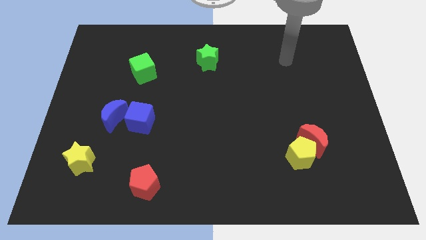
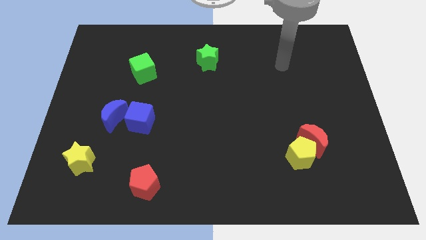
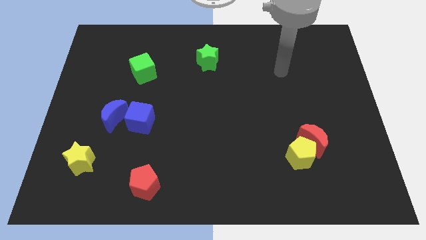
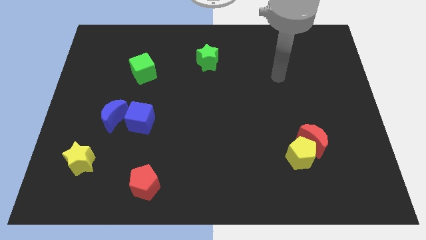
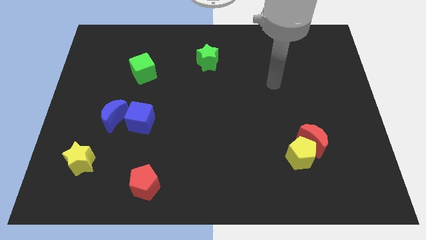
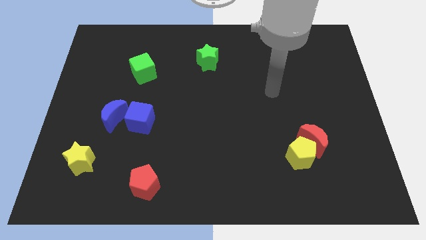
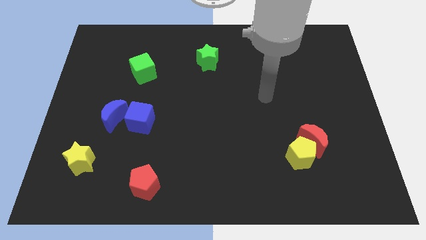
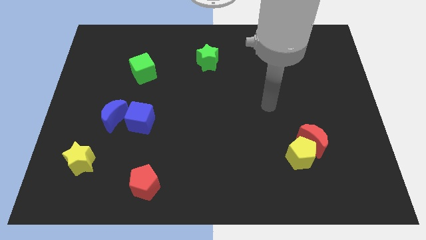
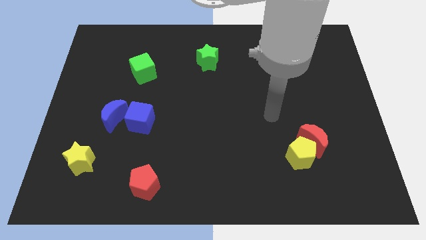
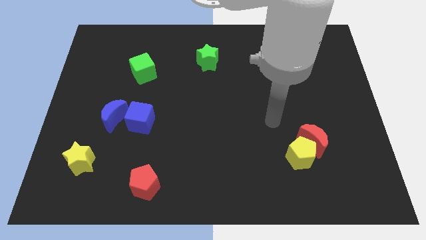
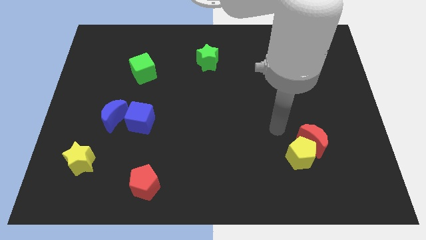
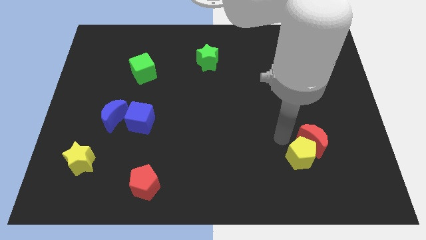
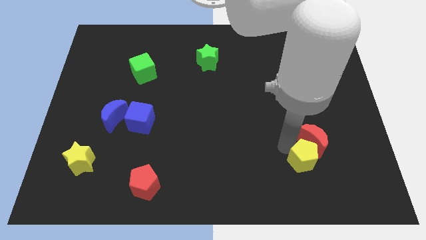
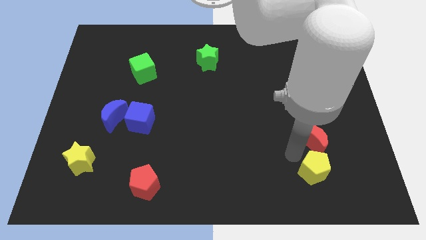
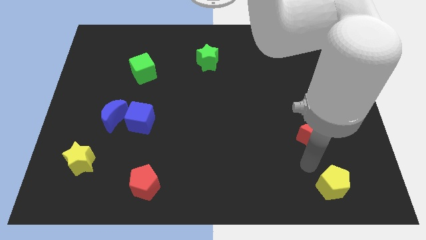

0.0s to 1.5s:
move the red moon away from the yellow pentagon

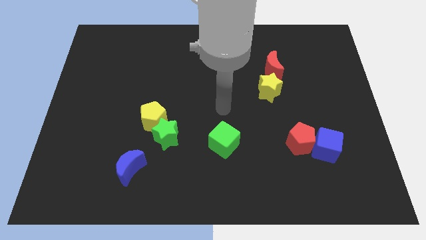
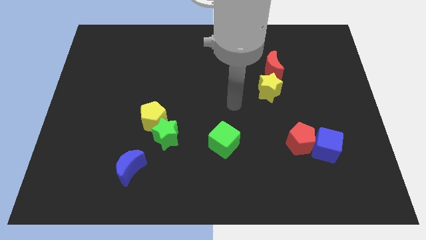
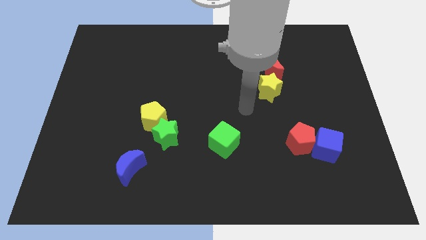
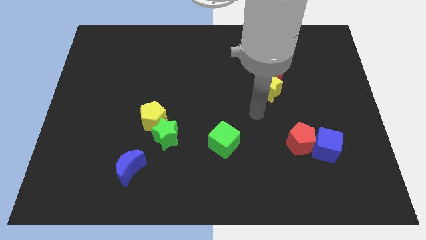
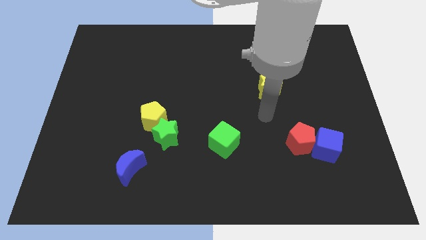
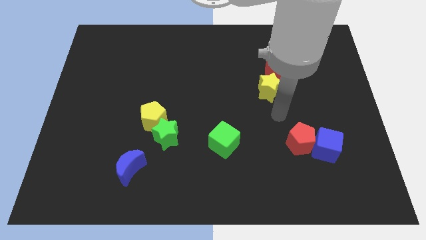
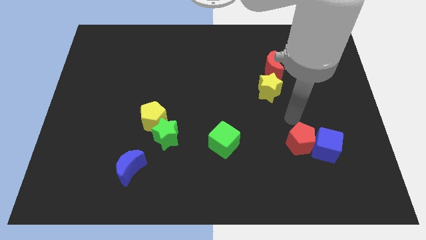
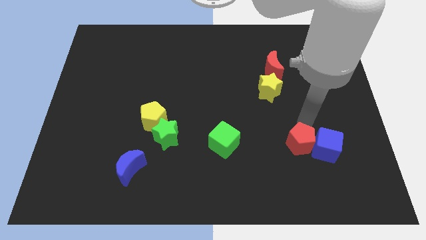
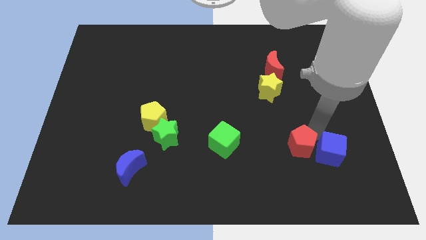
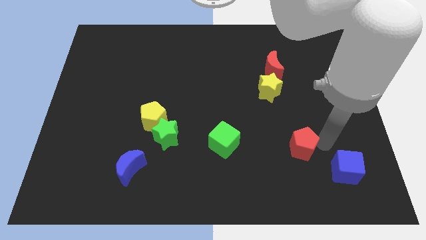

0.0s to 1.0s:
separate the red pentagon from the blue cube

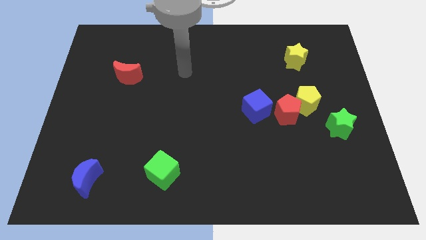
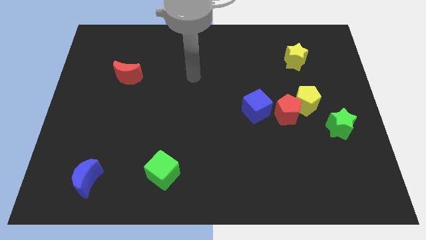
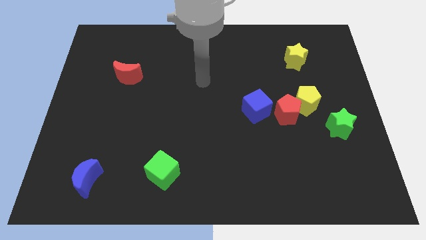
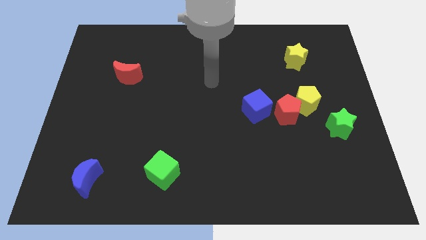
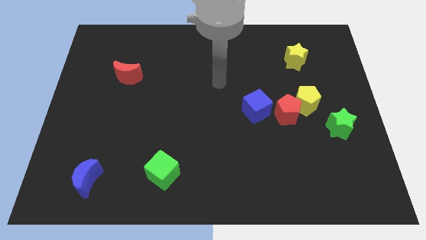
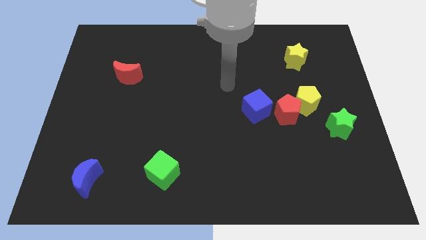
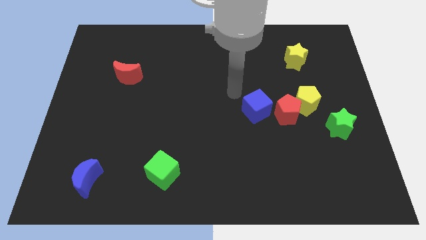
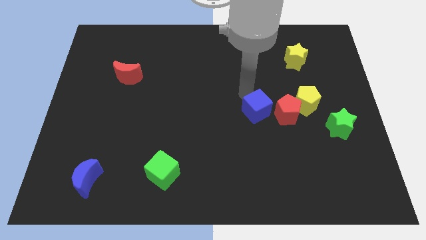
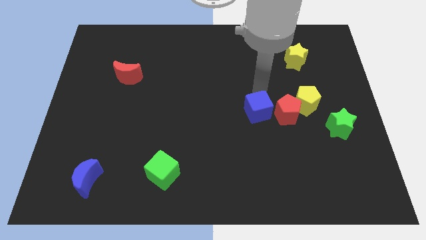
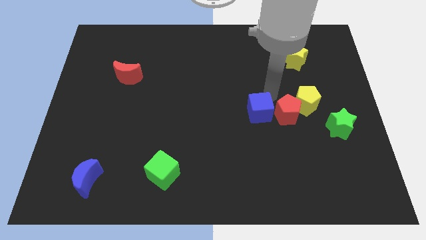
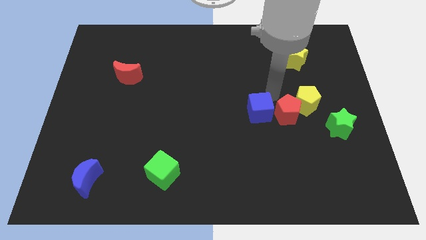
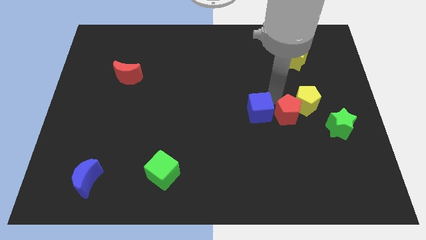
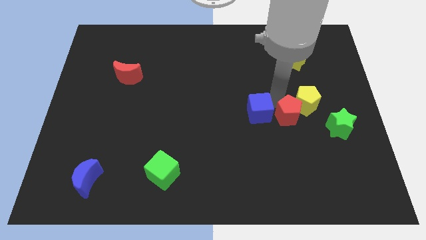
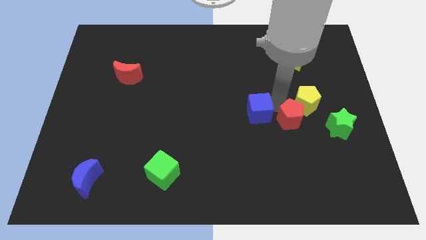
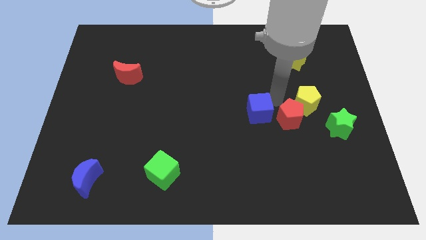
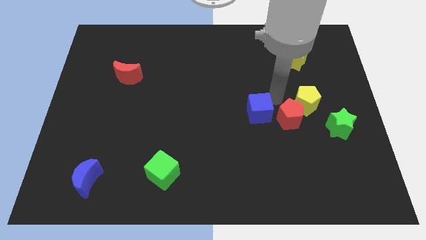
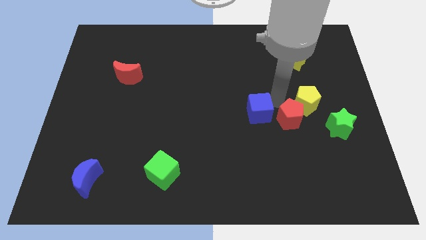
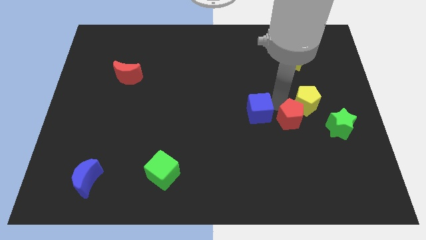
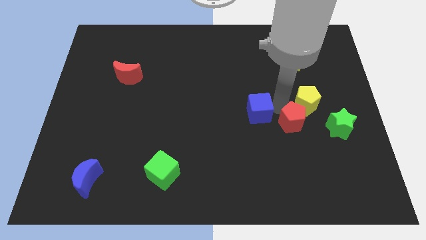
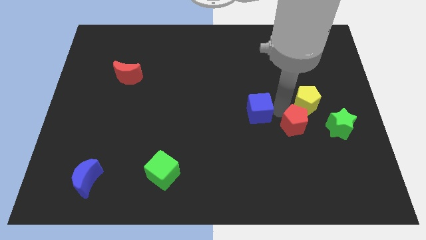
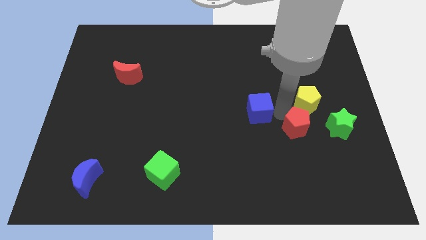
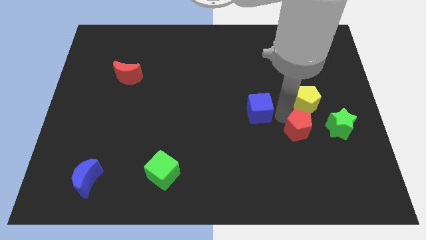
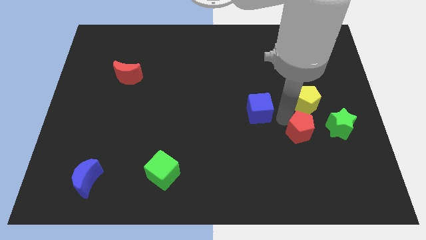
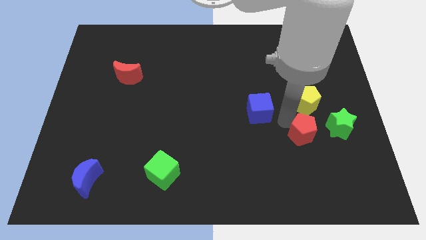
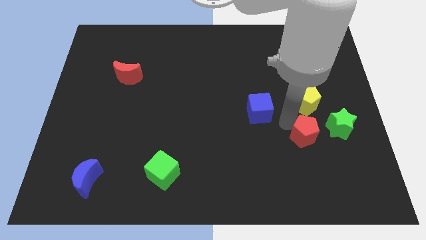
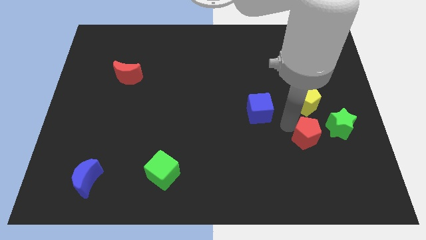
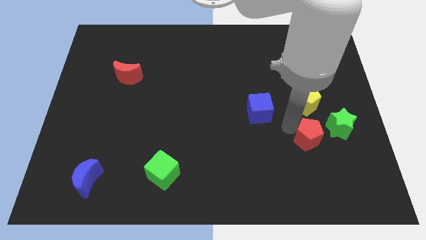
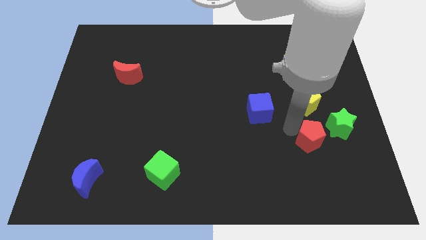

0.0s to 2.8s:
move the red pentagon away from the yellow pentagon and blue cube

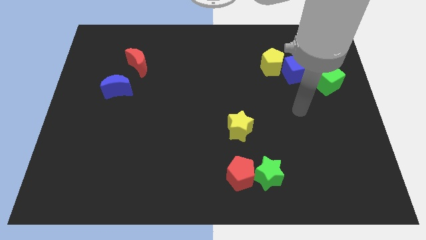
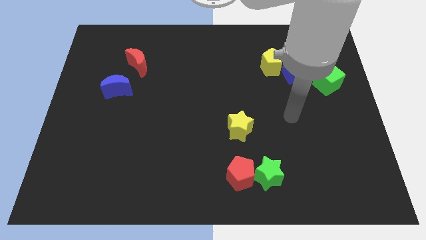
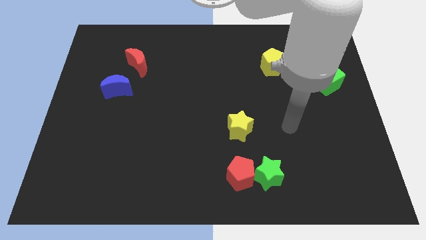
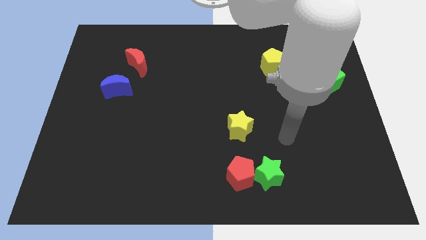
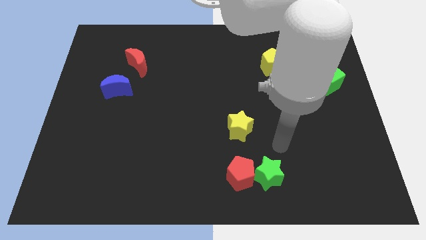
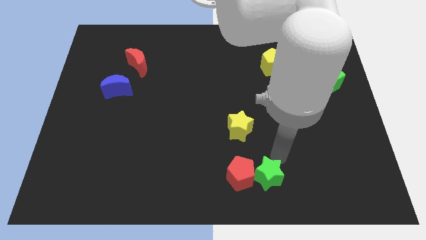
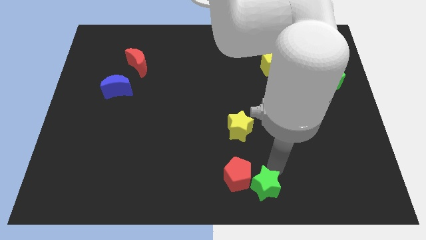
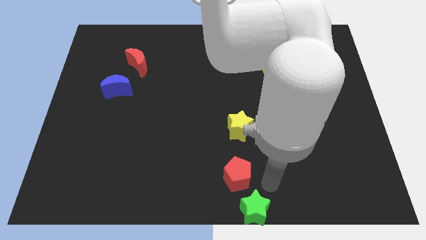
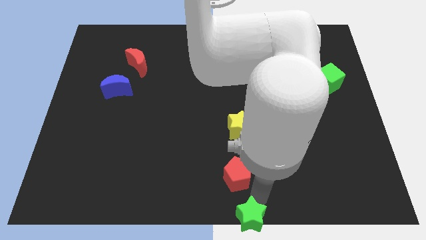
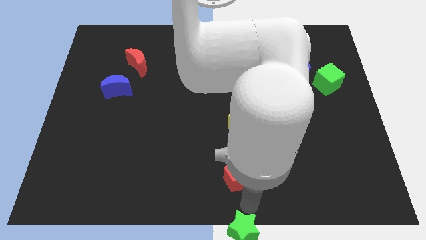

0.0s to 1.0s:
pull the red pentagon apart from the green star

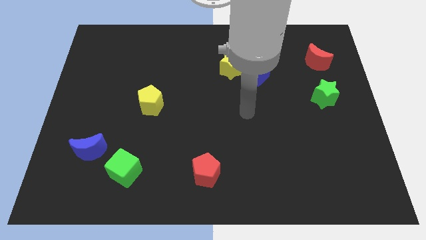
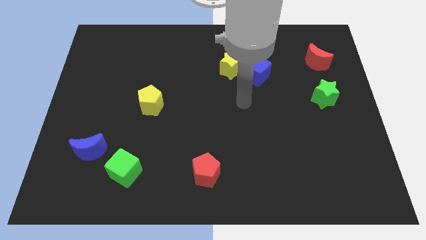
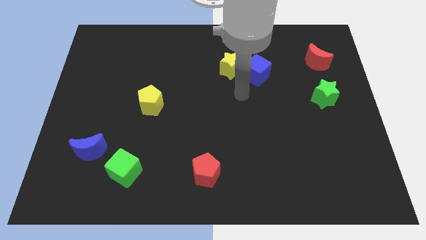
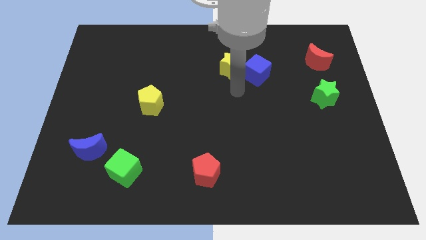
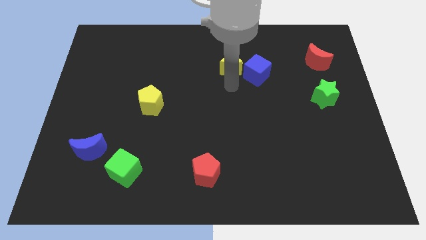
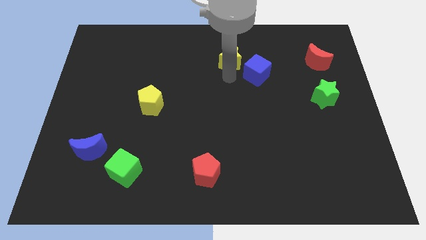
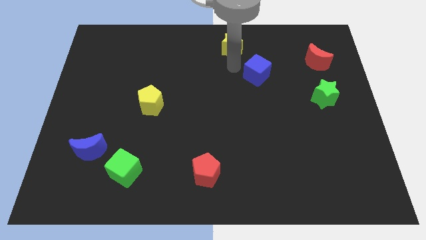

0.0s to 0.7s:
move the blue cube away from the yellow star

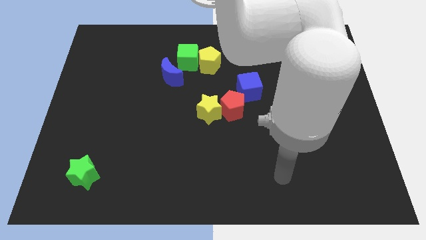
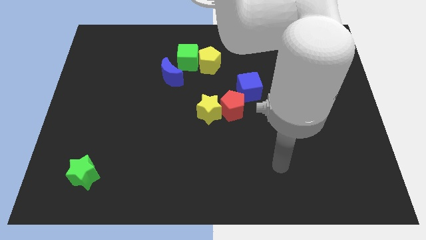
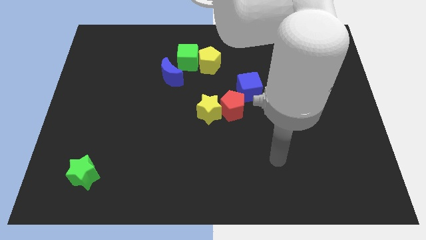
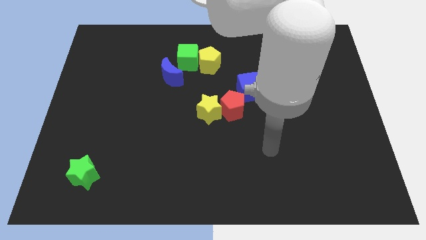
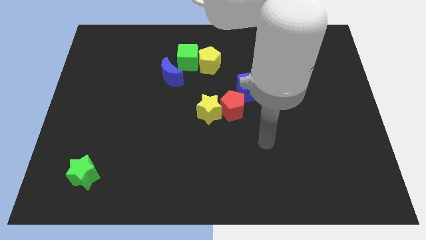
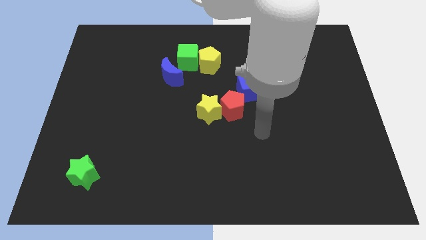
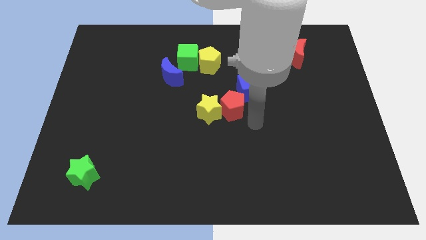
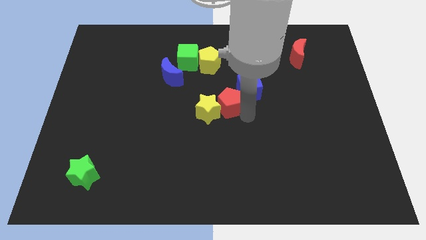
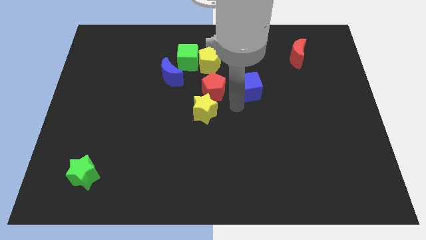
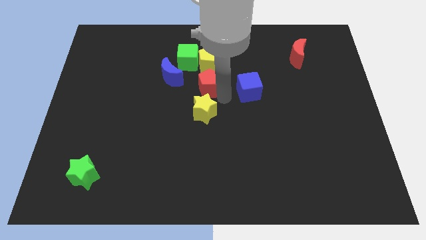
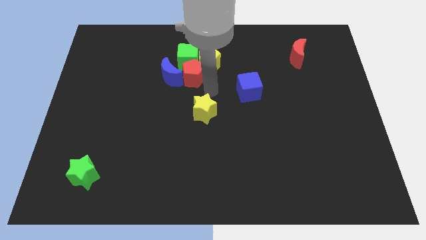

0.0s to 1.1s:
pull the yellow star apart from the red pentagon

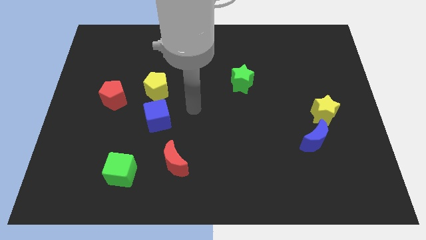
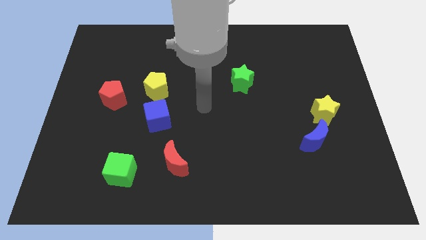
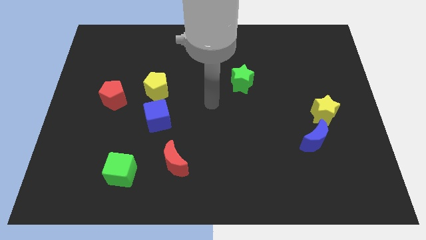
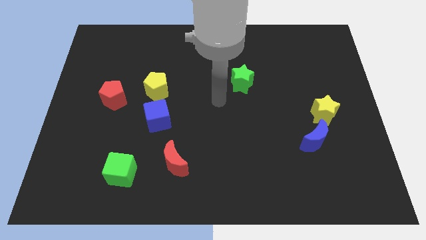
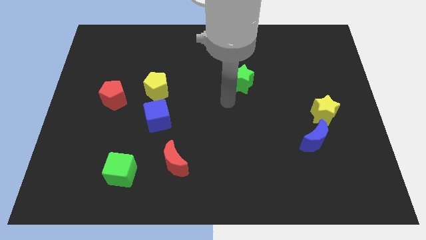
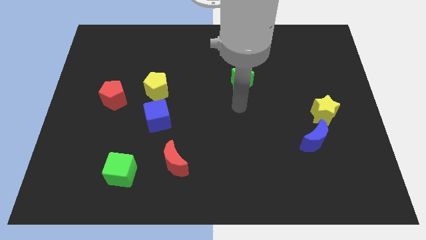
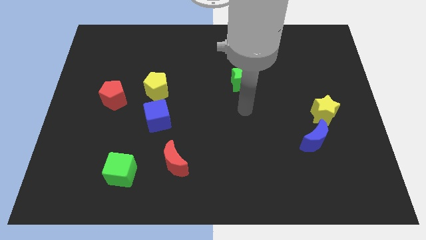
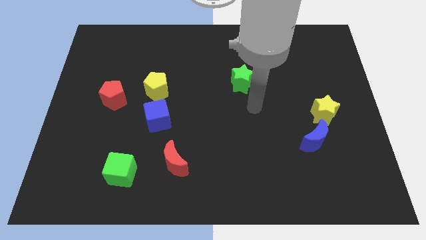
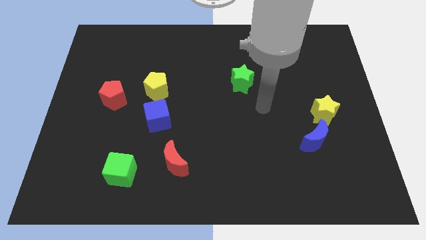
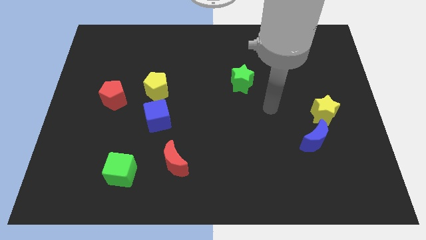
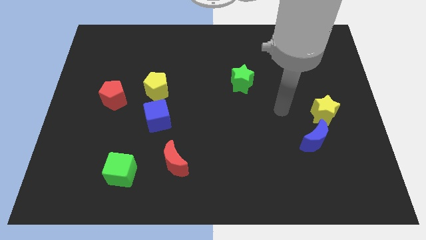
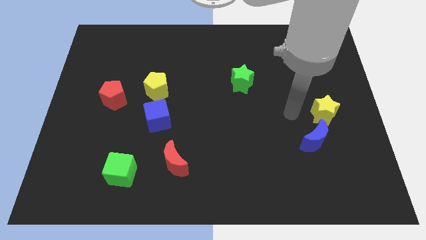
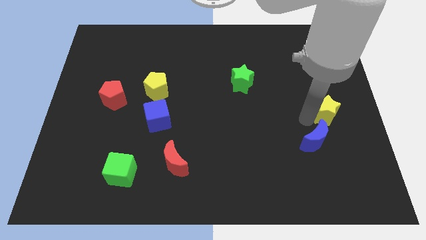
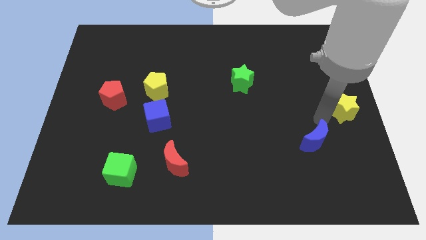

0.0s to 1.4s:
pull the blue moon apart from the yellow star
